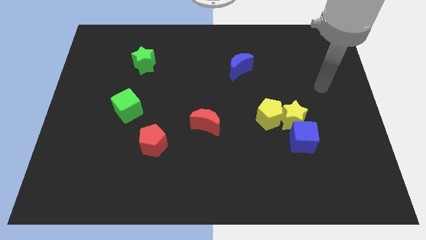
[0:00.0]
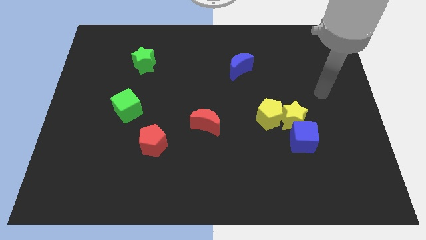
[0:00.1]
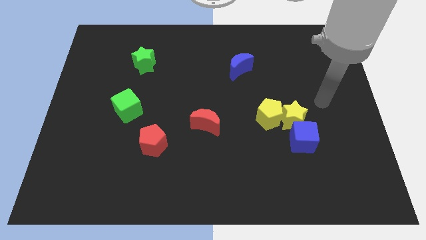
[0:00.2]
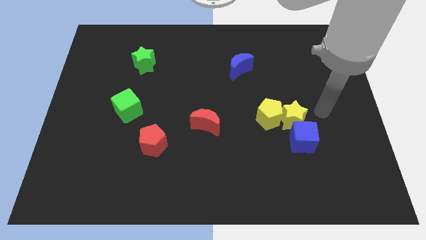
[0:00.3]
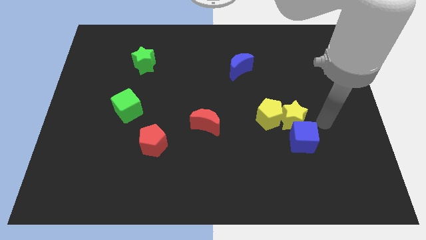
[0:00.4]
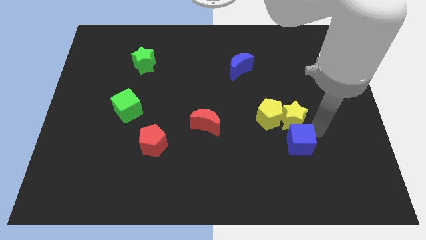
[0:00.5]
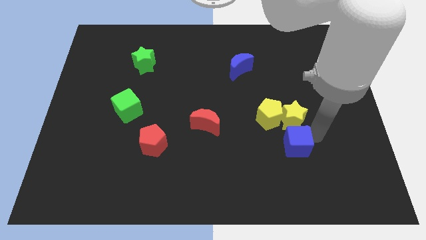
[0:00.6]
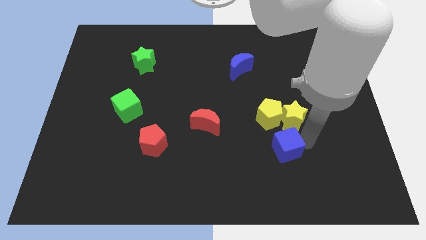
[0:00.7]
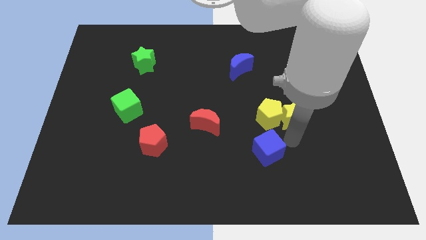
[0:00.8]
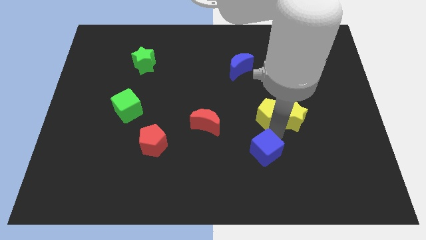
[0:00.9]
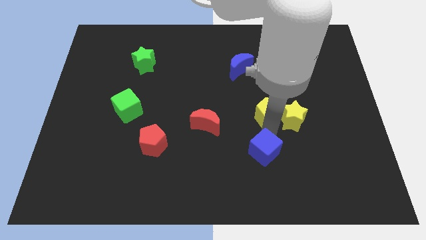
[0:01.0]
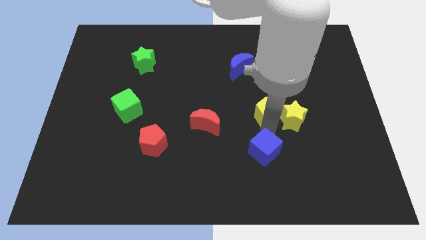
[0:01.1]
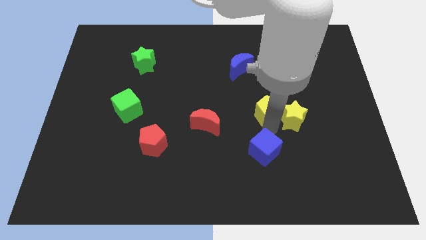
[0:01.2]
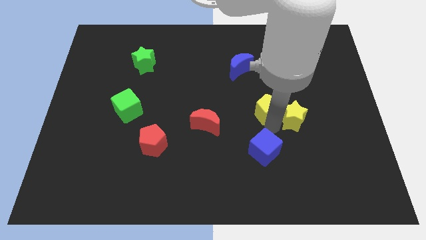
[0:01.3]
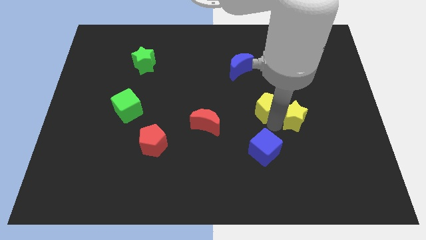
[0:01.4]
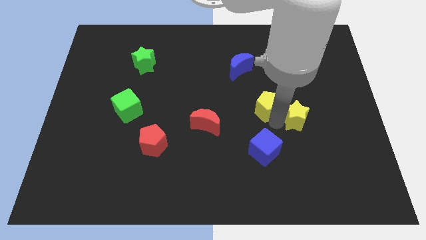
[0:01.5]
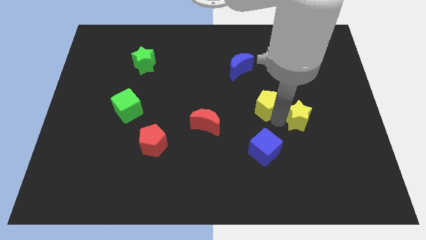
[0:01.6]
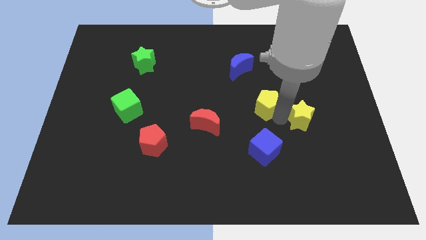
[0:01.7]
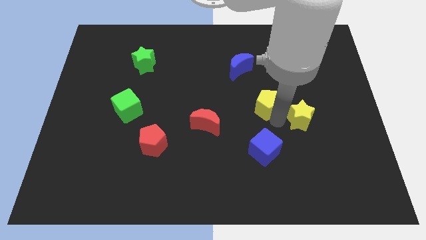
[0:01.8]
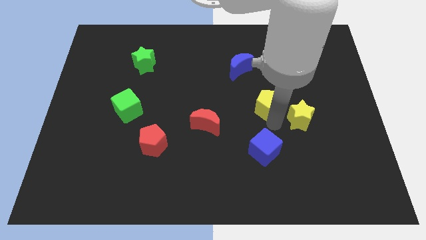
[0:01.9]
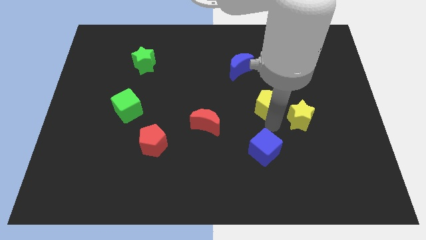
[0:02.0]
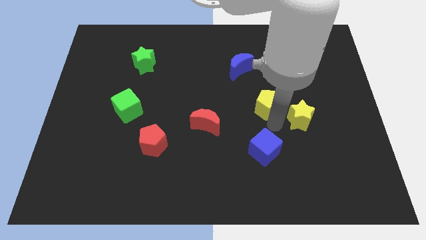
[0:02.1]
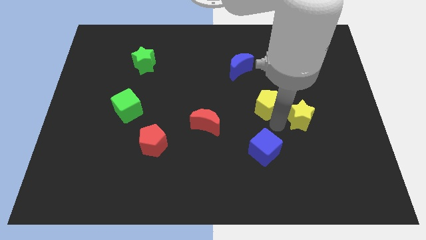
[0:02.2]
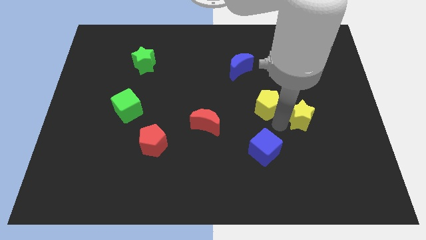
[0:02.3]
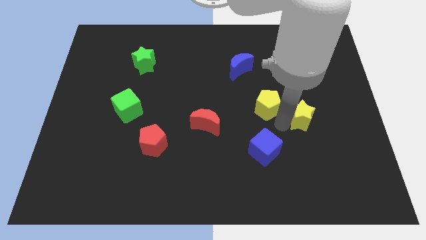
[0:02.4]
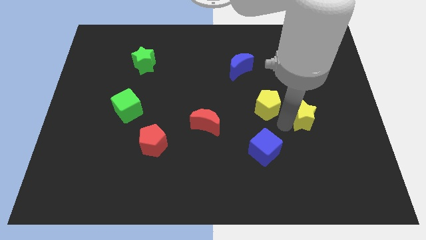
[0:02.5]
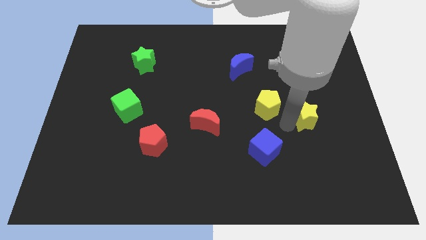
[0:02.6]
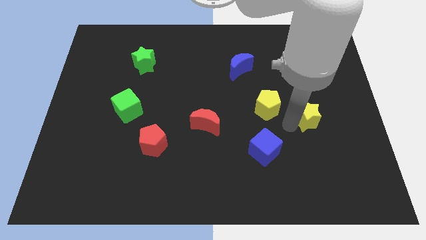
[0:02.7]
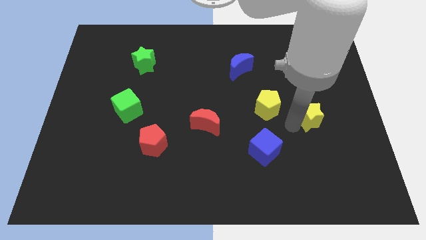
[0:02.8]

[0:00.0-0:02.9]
separate the yellow star from the yellow pentagon and blue cube

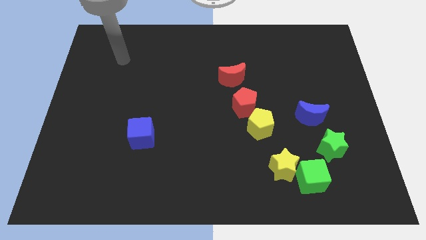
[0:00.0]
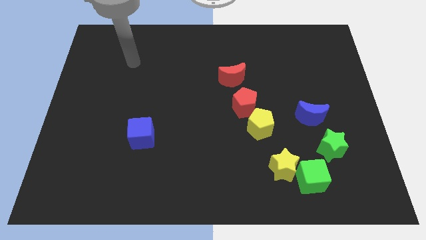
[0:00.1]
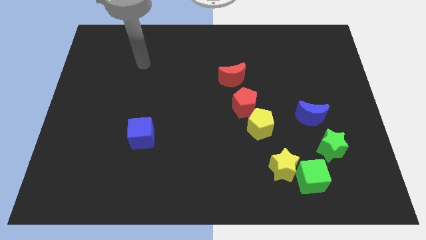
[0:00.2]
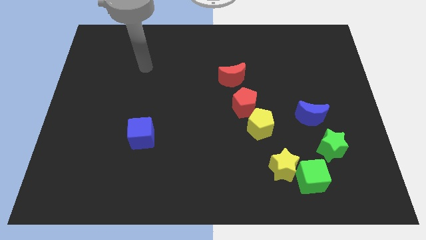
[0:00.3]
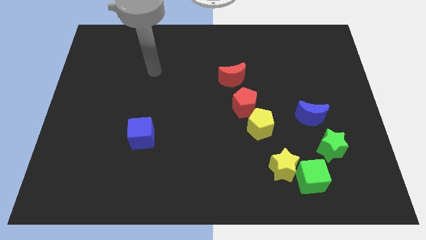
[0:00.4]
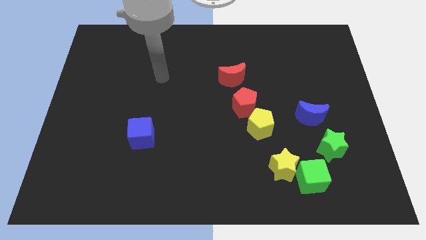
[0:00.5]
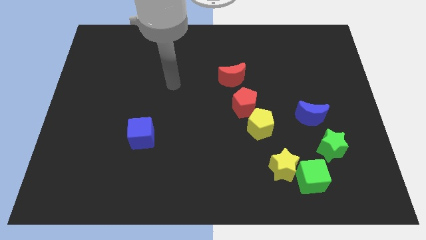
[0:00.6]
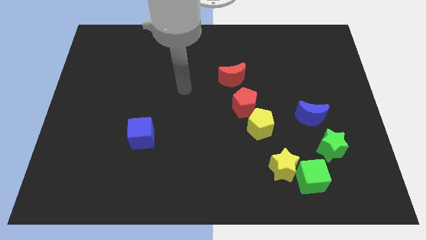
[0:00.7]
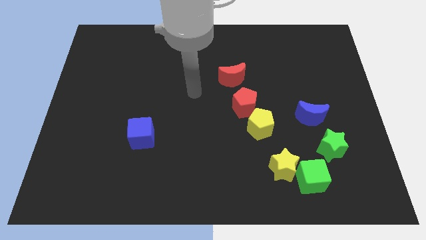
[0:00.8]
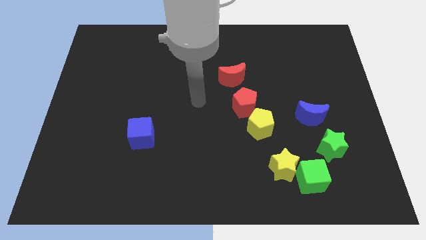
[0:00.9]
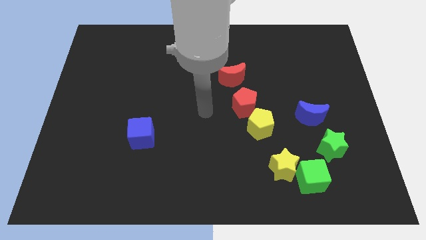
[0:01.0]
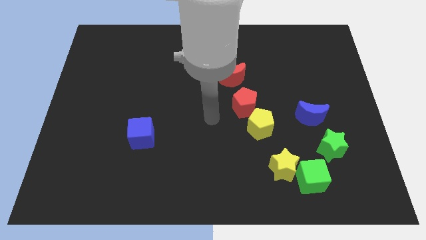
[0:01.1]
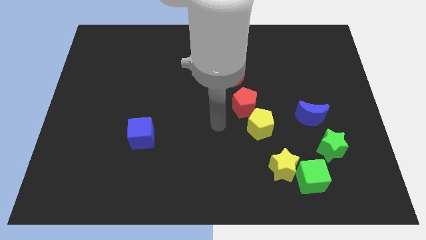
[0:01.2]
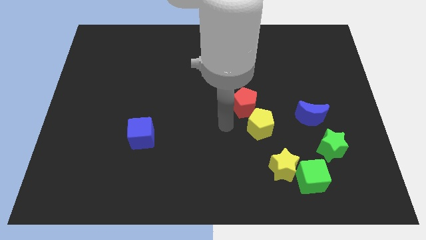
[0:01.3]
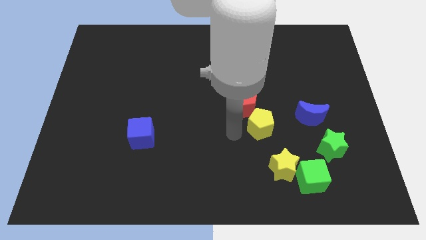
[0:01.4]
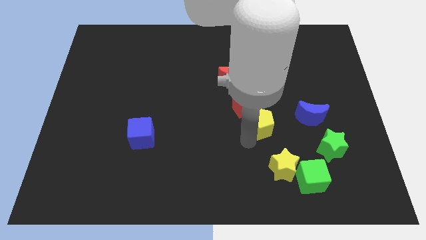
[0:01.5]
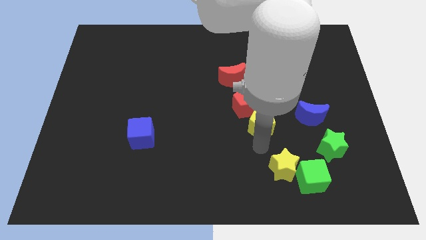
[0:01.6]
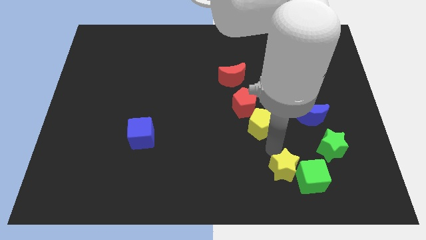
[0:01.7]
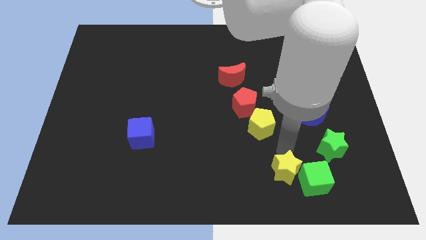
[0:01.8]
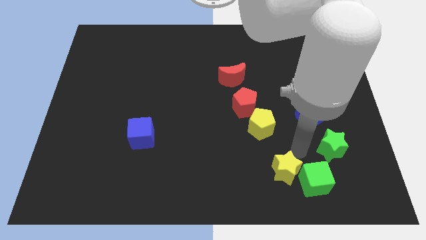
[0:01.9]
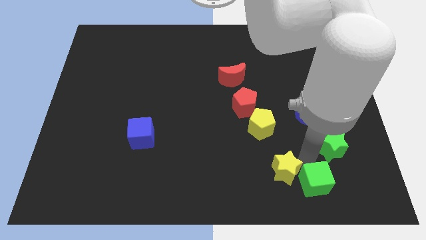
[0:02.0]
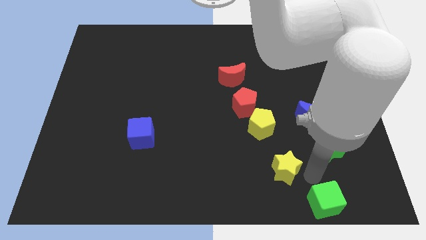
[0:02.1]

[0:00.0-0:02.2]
separate the yellow star from the green cube

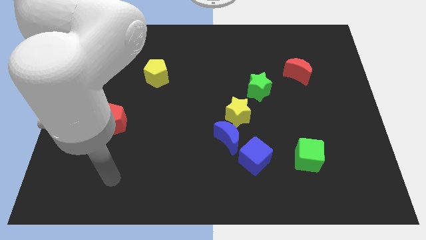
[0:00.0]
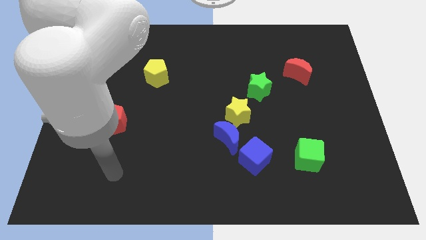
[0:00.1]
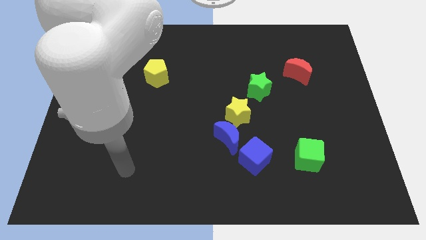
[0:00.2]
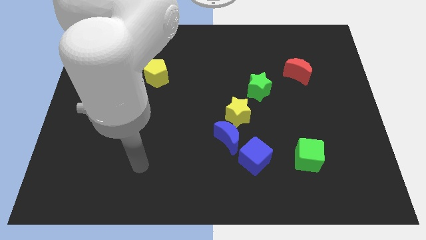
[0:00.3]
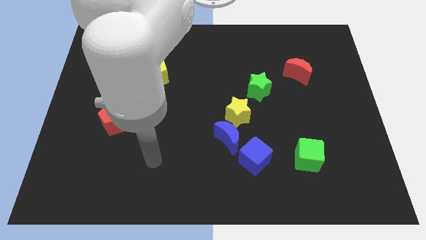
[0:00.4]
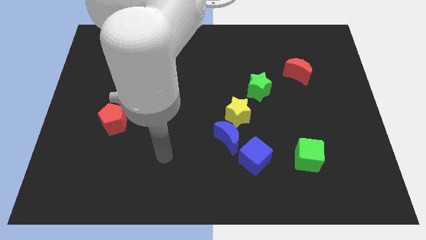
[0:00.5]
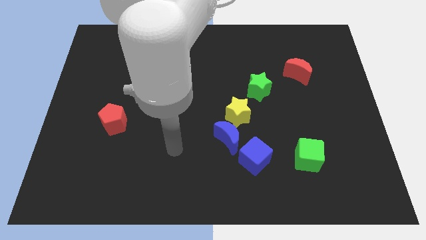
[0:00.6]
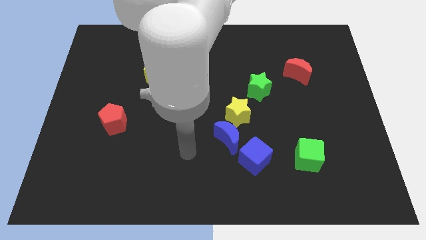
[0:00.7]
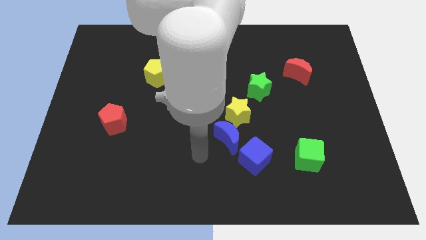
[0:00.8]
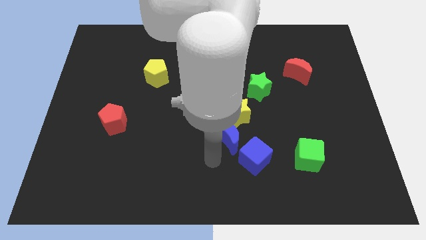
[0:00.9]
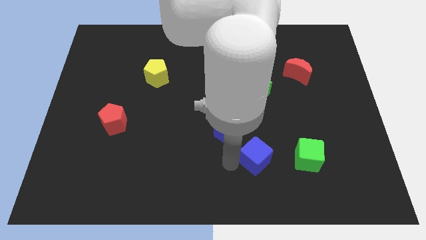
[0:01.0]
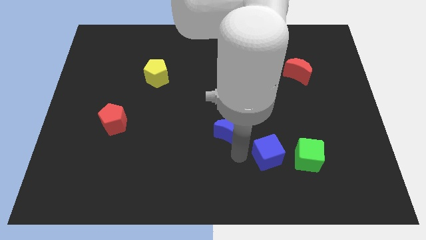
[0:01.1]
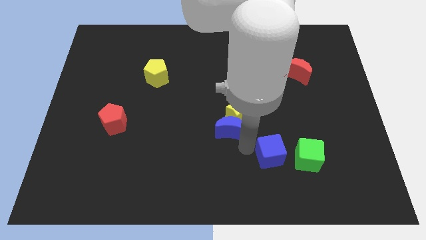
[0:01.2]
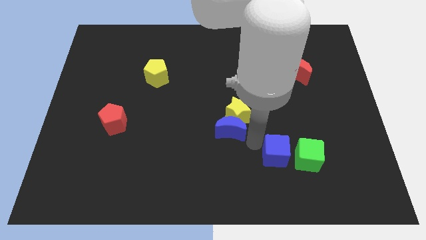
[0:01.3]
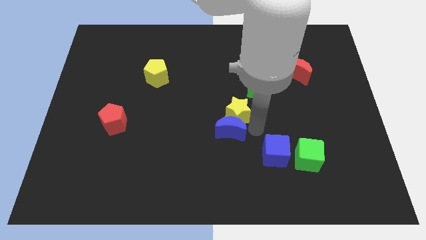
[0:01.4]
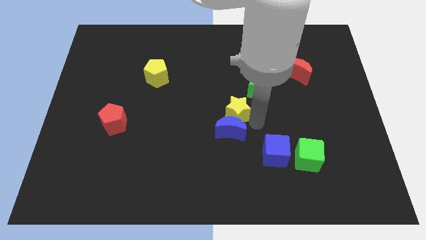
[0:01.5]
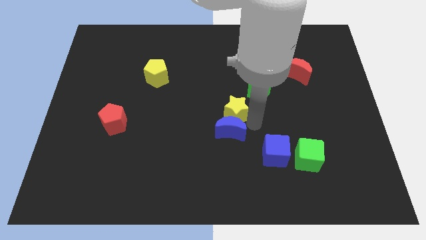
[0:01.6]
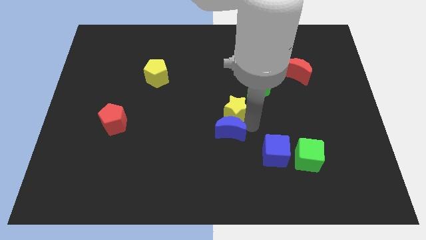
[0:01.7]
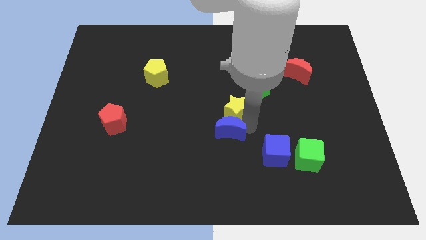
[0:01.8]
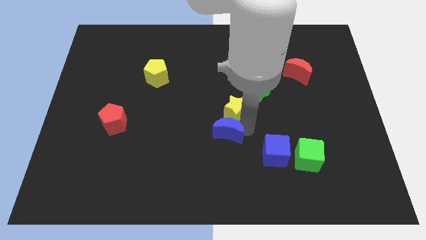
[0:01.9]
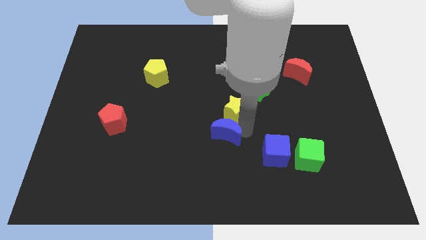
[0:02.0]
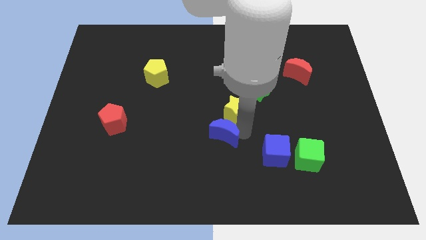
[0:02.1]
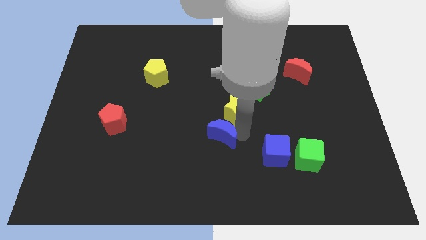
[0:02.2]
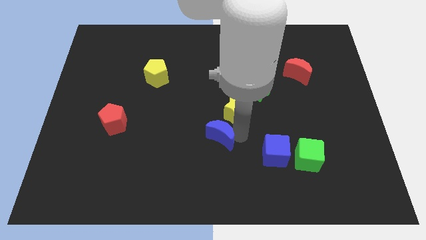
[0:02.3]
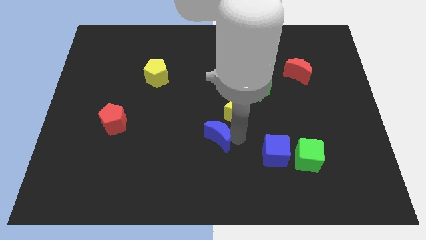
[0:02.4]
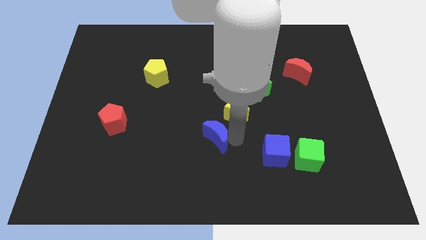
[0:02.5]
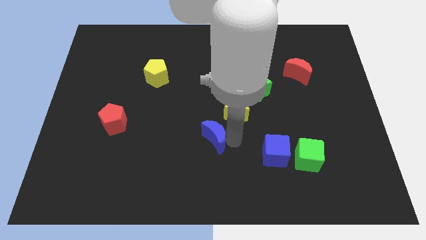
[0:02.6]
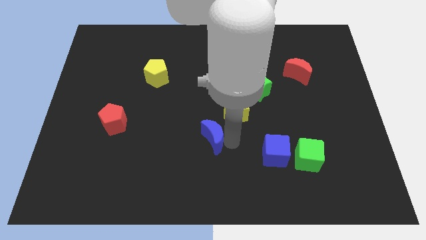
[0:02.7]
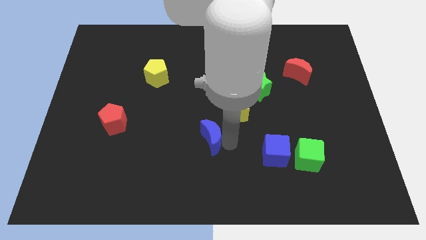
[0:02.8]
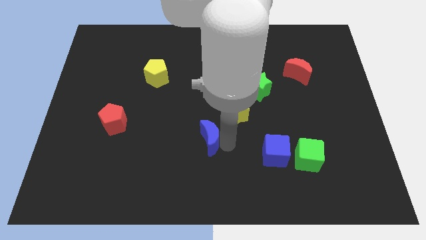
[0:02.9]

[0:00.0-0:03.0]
separate the blue moon from the yellow star and blue cube

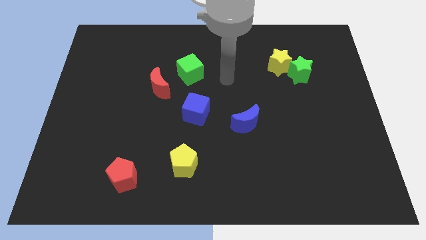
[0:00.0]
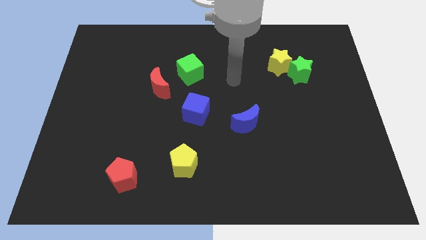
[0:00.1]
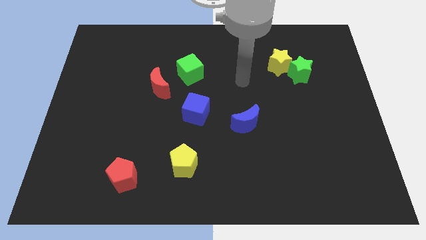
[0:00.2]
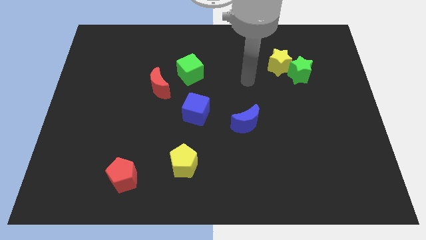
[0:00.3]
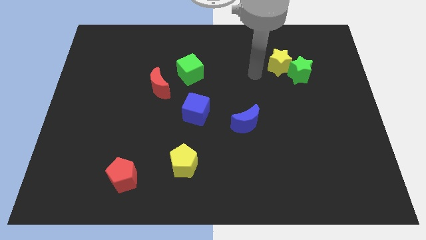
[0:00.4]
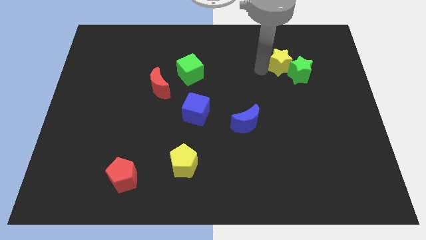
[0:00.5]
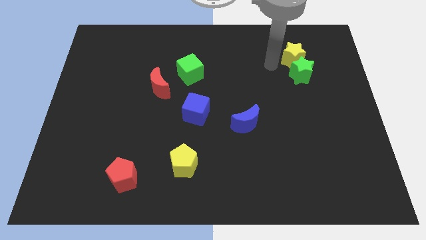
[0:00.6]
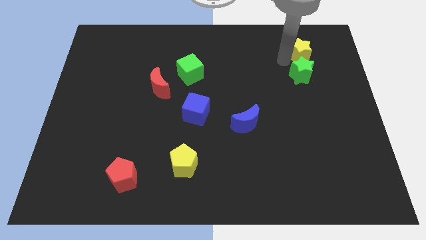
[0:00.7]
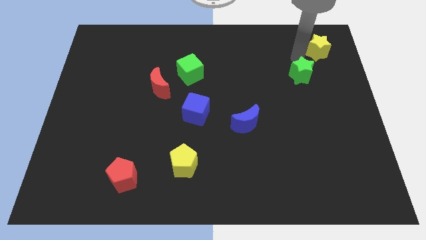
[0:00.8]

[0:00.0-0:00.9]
separate the green star from the yellow star

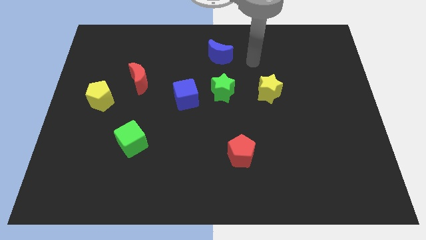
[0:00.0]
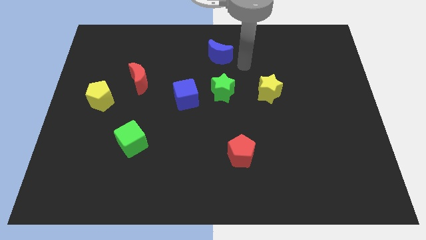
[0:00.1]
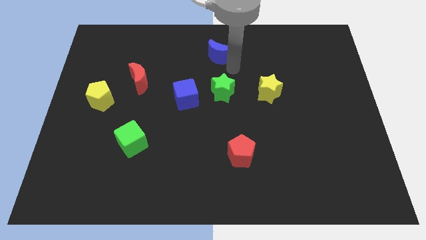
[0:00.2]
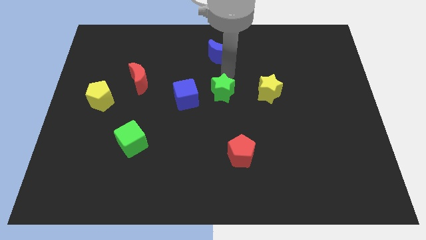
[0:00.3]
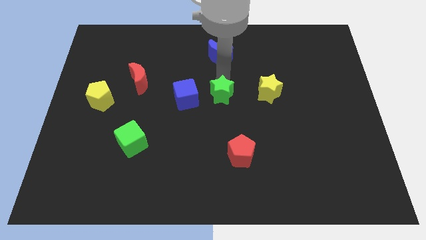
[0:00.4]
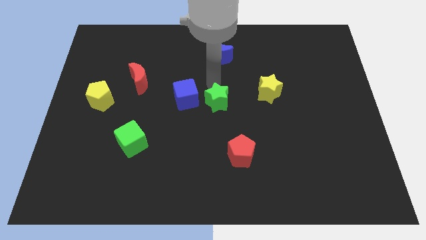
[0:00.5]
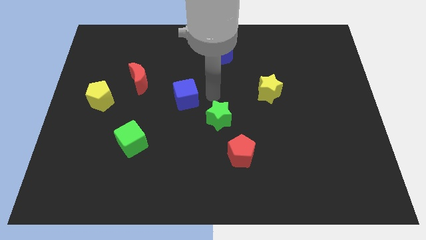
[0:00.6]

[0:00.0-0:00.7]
pull the blue cube apart from the green star
